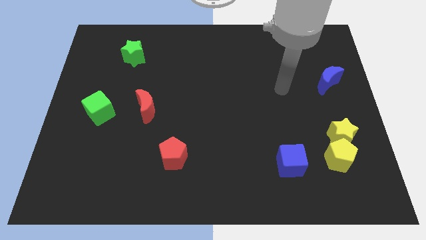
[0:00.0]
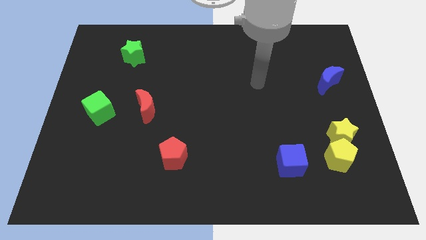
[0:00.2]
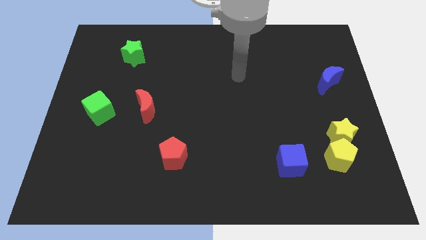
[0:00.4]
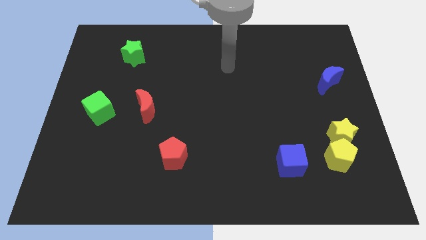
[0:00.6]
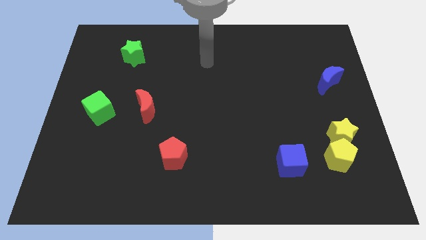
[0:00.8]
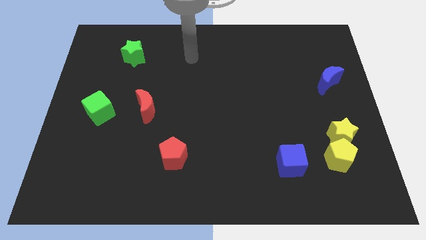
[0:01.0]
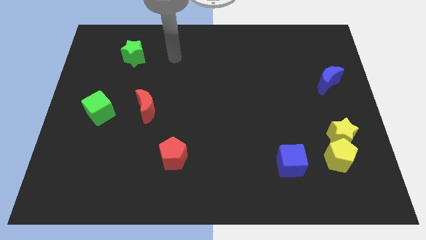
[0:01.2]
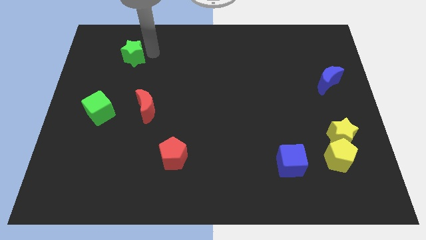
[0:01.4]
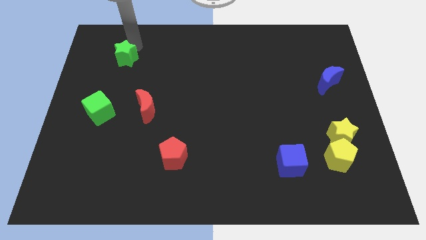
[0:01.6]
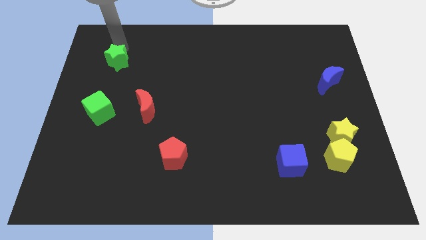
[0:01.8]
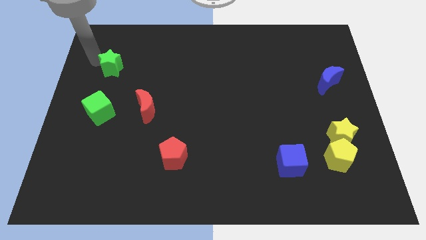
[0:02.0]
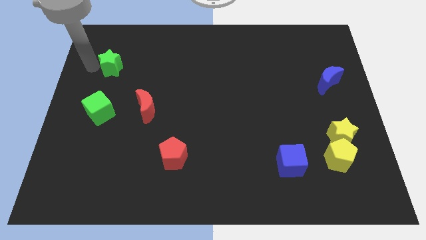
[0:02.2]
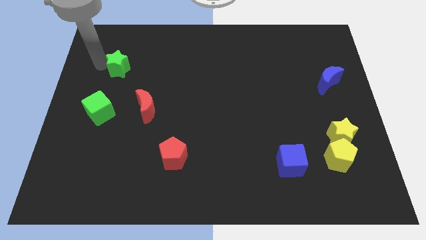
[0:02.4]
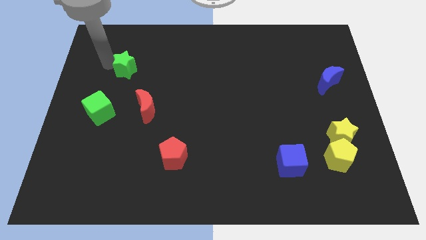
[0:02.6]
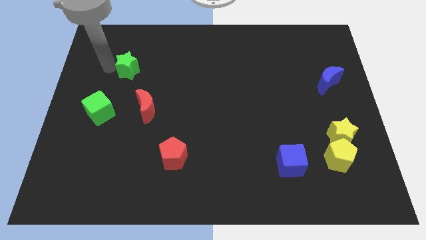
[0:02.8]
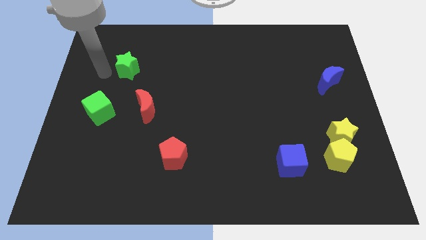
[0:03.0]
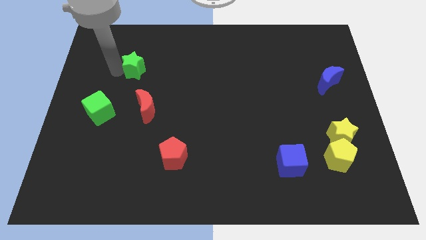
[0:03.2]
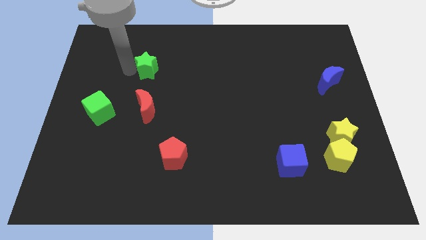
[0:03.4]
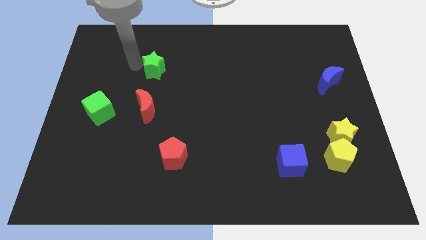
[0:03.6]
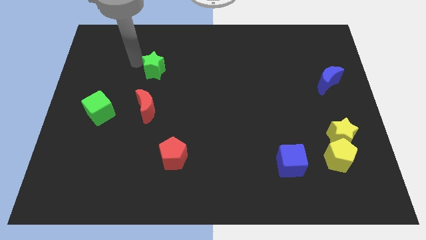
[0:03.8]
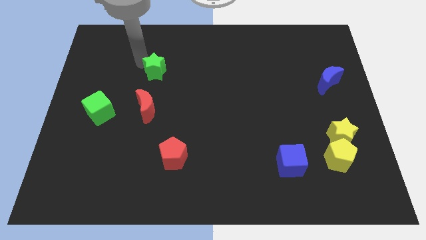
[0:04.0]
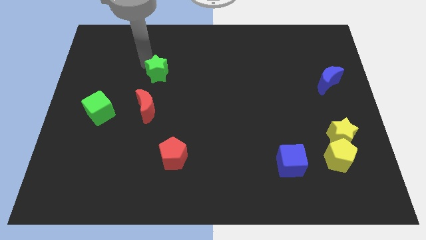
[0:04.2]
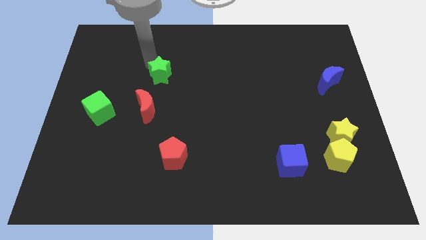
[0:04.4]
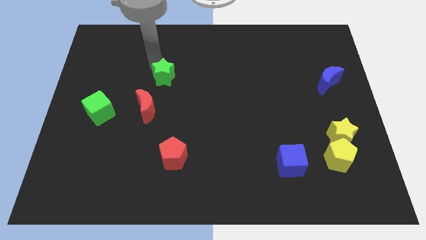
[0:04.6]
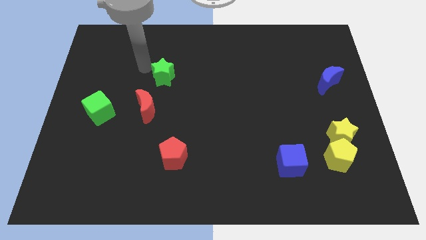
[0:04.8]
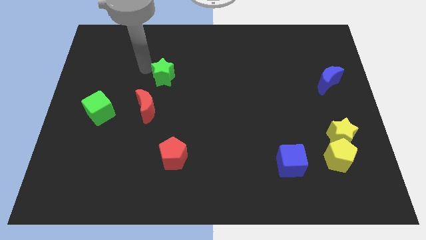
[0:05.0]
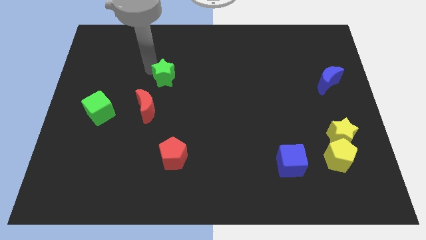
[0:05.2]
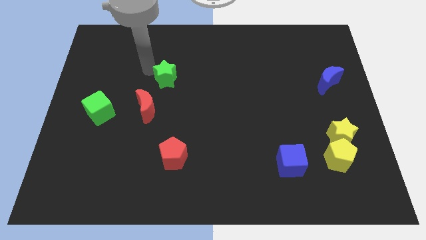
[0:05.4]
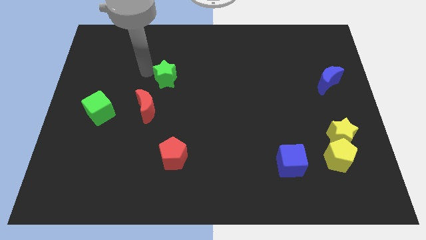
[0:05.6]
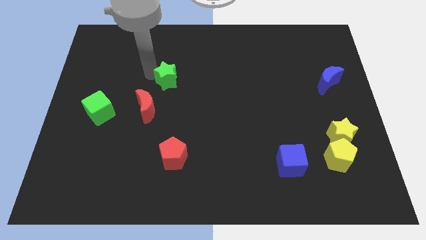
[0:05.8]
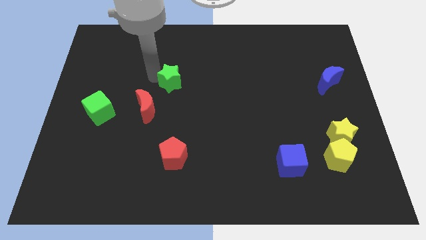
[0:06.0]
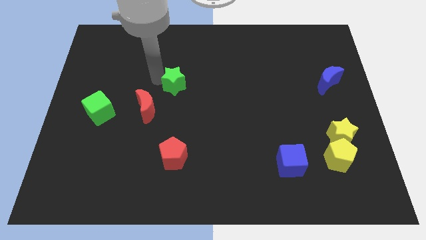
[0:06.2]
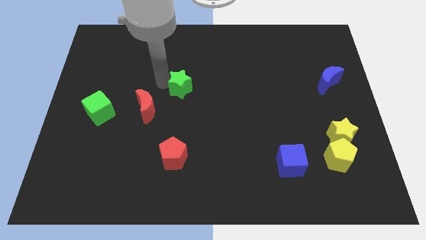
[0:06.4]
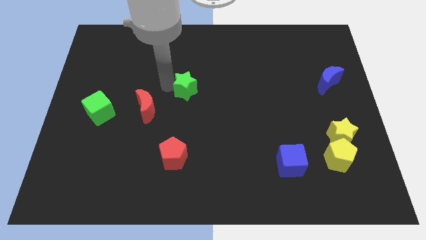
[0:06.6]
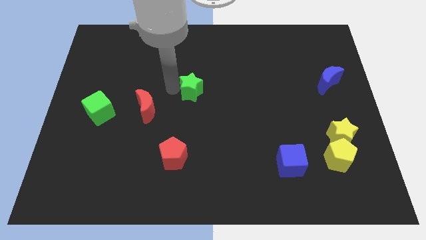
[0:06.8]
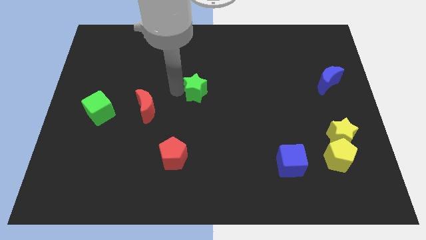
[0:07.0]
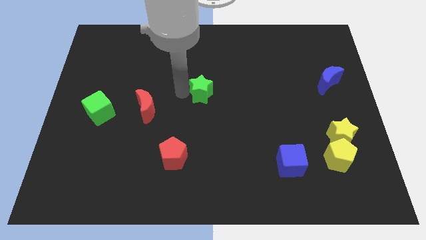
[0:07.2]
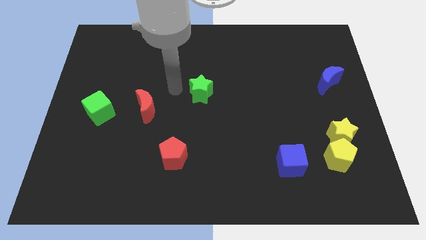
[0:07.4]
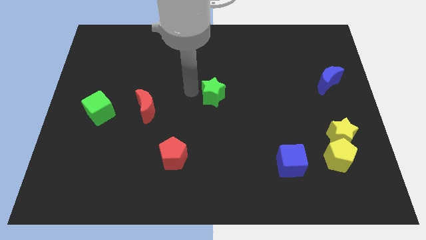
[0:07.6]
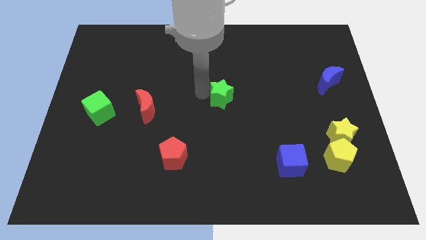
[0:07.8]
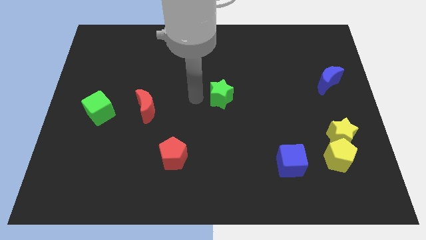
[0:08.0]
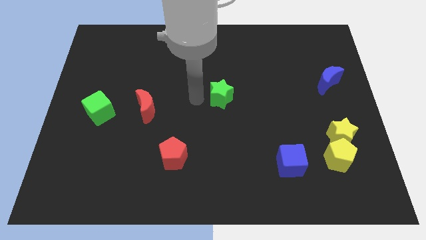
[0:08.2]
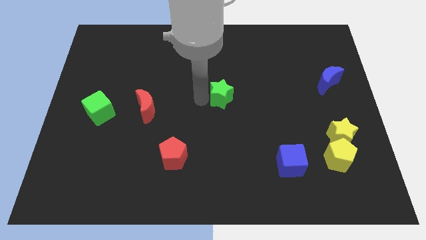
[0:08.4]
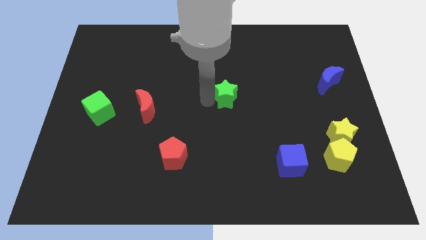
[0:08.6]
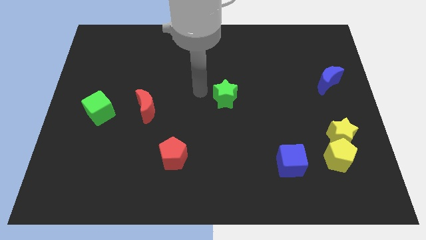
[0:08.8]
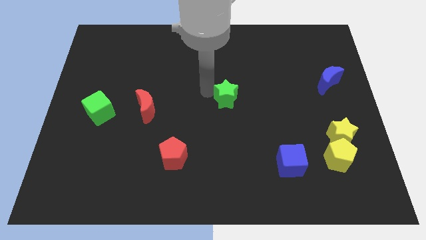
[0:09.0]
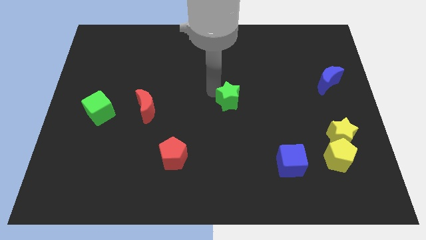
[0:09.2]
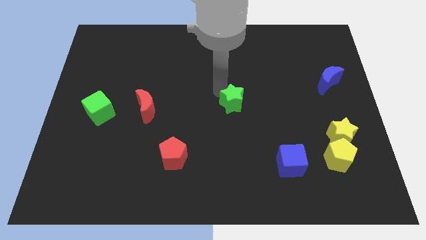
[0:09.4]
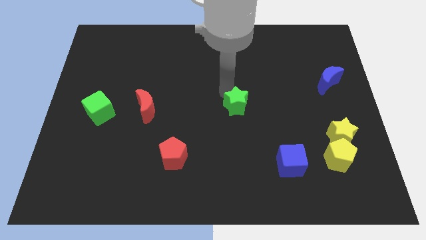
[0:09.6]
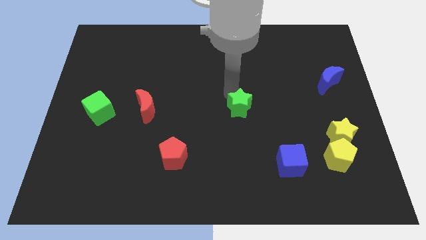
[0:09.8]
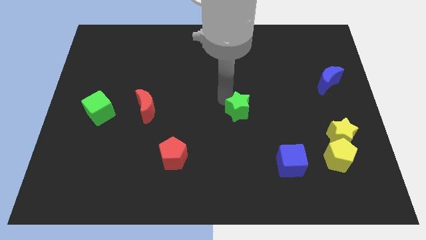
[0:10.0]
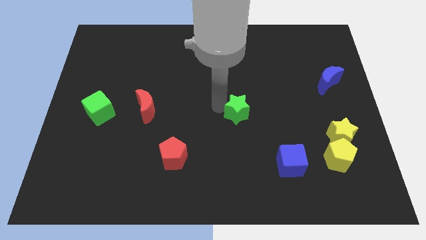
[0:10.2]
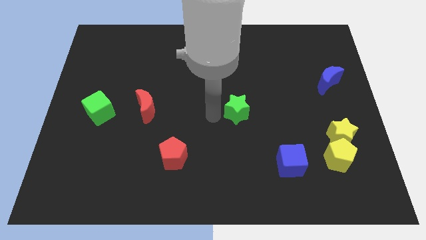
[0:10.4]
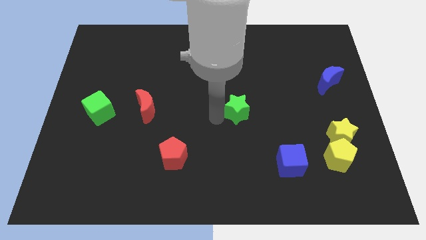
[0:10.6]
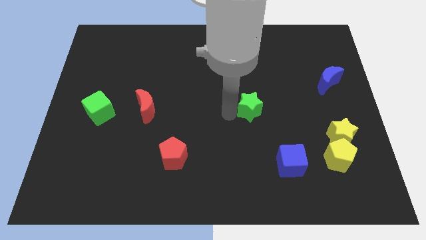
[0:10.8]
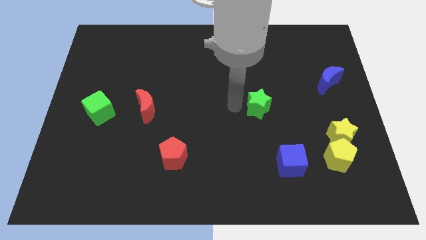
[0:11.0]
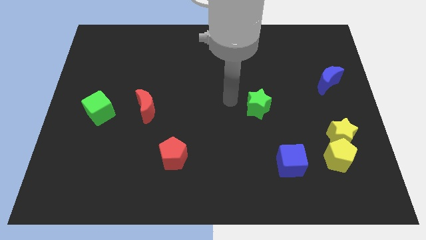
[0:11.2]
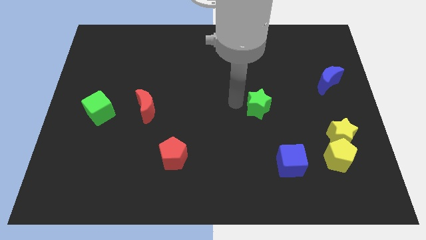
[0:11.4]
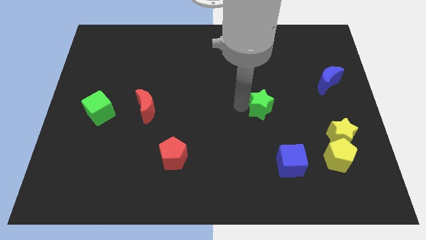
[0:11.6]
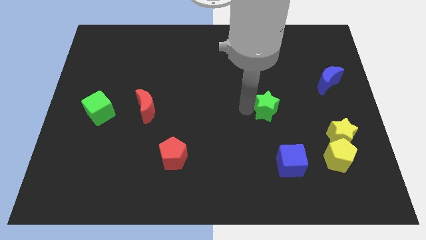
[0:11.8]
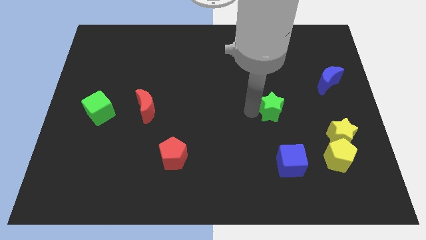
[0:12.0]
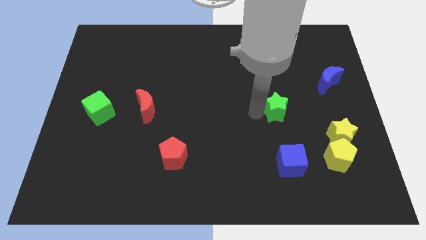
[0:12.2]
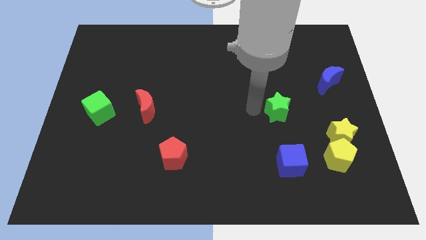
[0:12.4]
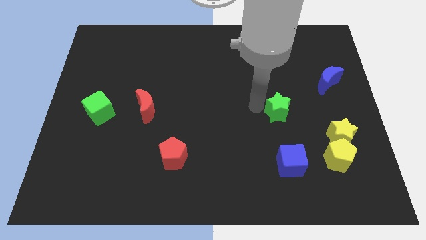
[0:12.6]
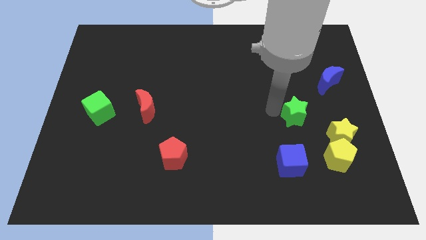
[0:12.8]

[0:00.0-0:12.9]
slide the green star to the top left side of the yellow star
